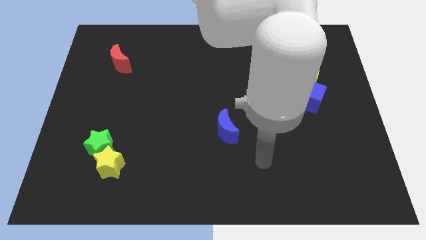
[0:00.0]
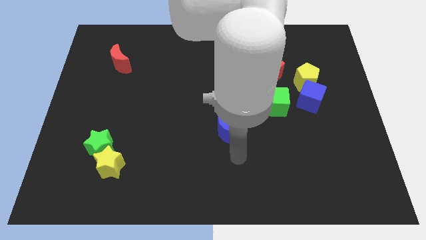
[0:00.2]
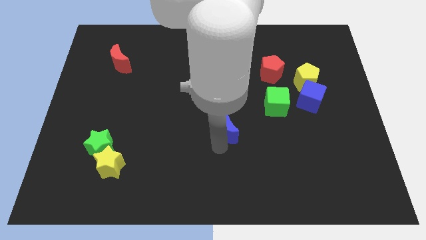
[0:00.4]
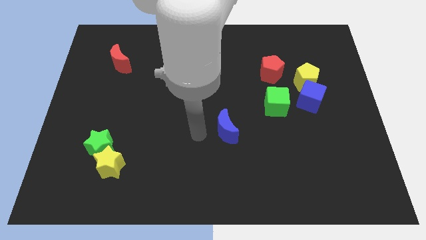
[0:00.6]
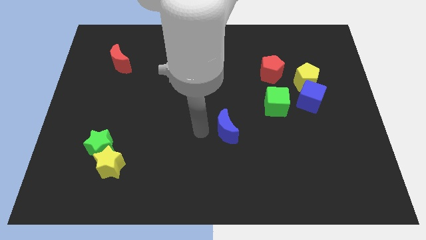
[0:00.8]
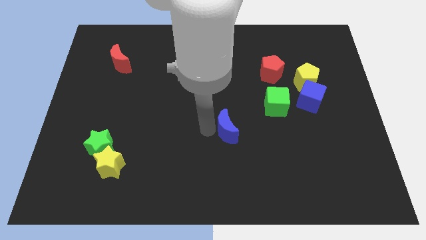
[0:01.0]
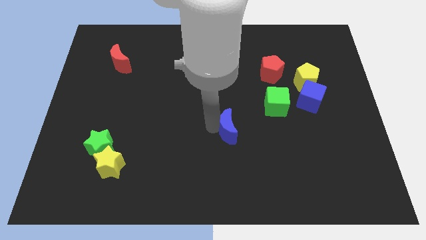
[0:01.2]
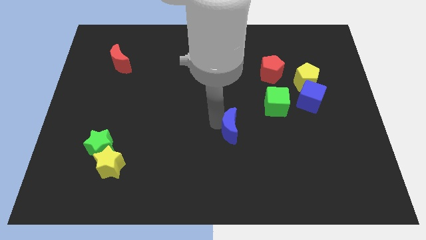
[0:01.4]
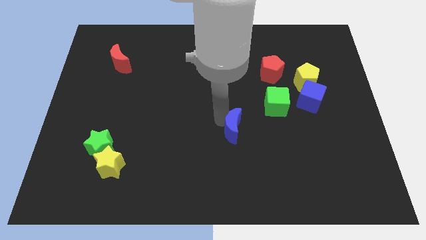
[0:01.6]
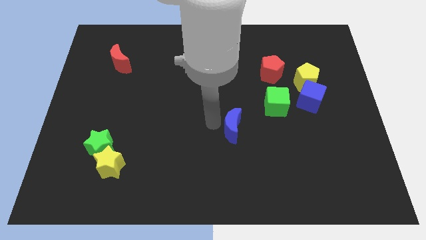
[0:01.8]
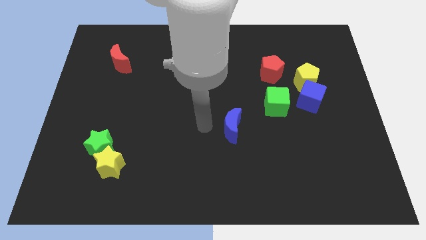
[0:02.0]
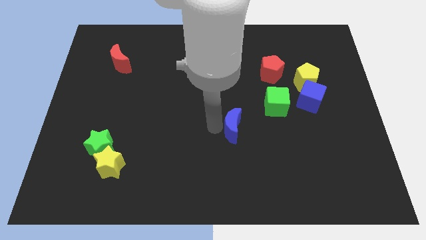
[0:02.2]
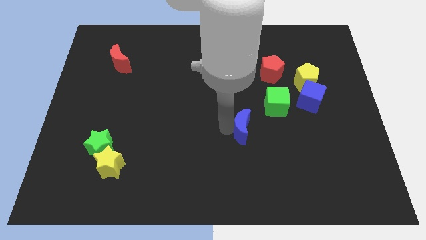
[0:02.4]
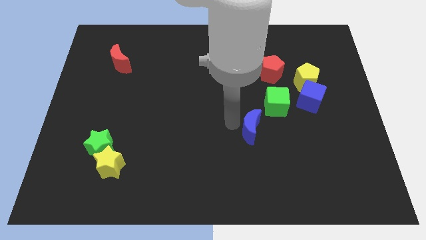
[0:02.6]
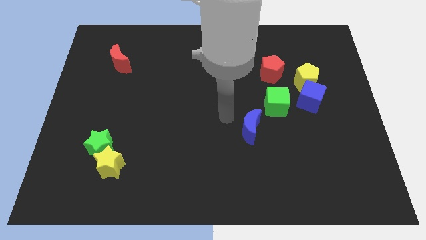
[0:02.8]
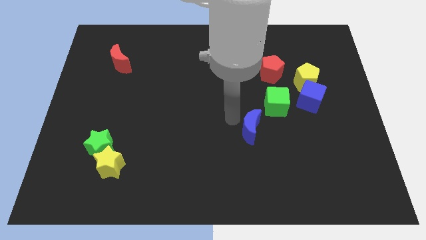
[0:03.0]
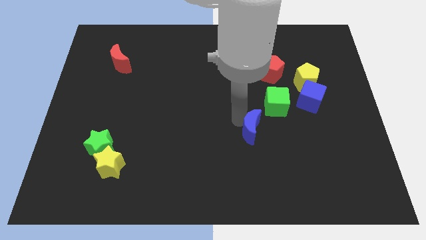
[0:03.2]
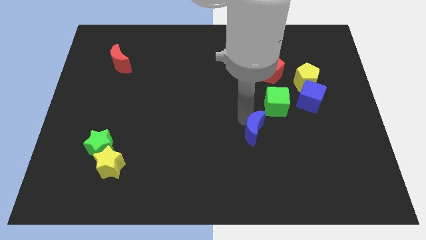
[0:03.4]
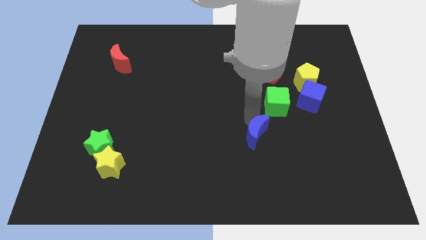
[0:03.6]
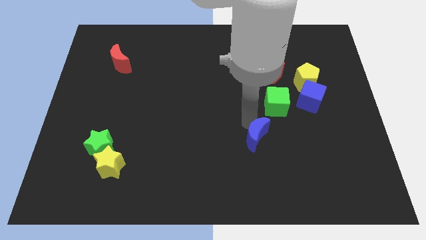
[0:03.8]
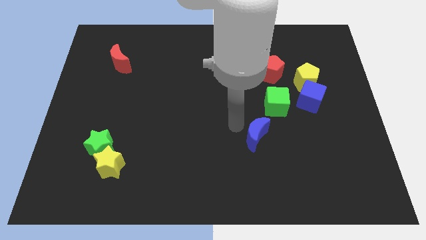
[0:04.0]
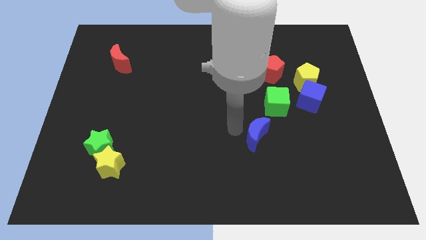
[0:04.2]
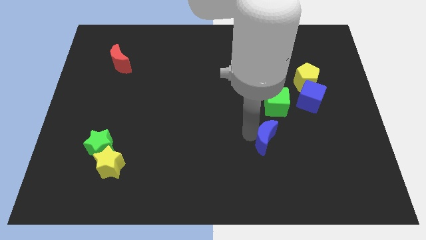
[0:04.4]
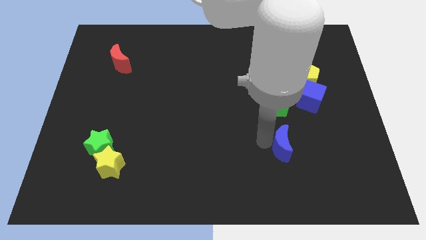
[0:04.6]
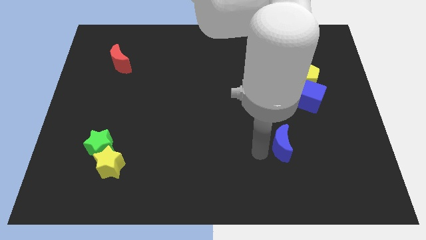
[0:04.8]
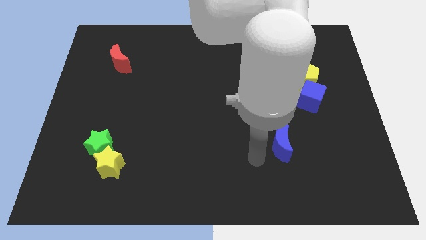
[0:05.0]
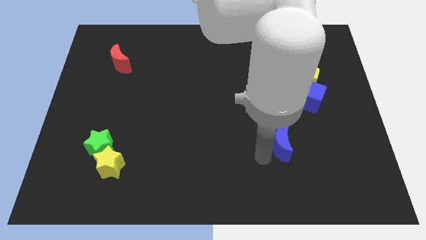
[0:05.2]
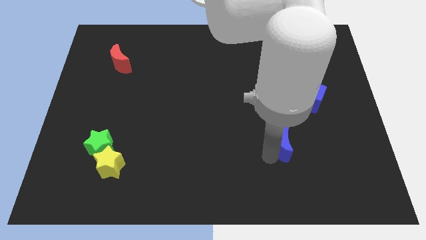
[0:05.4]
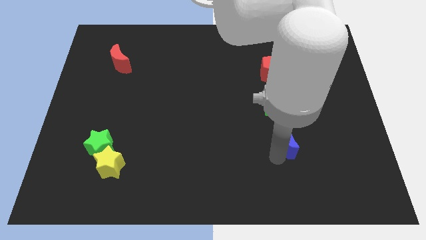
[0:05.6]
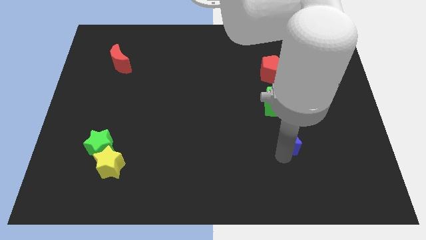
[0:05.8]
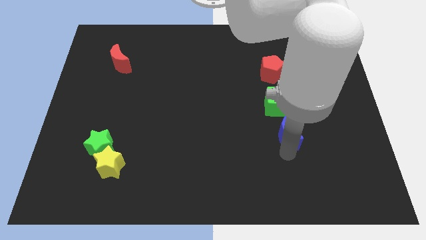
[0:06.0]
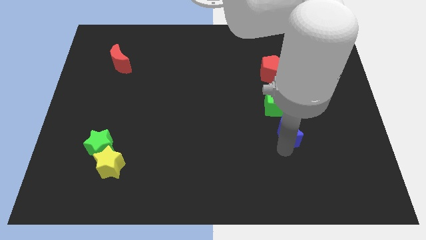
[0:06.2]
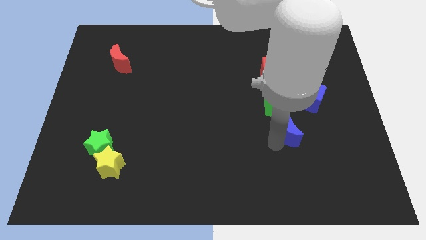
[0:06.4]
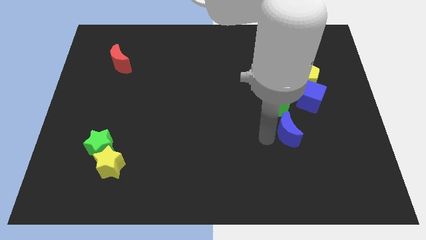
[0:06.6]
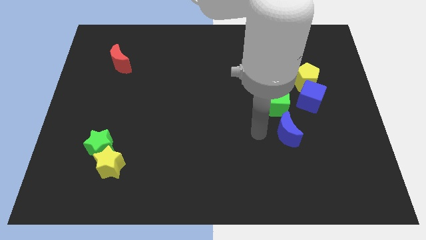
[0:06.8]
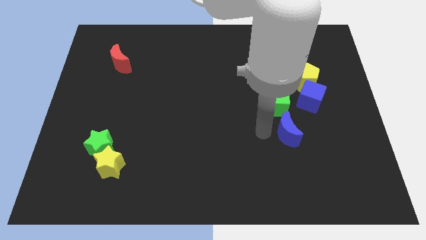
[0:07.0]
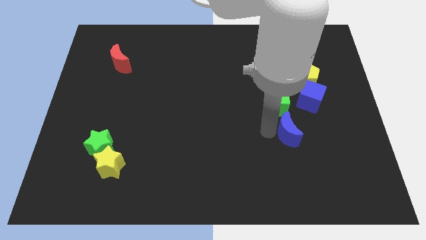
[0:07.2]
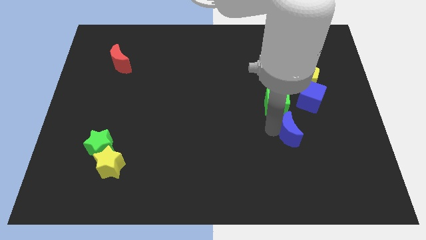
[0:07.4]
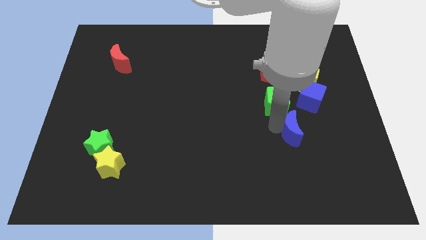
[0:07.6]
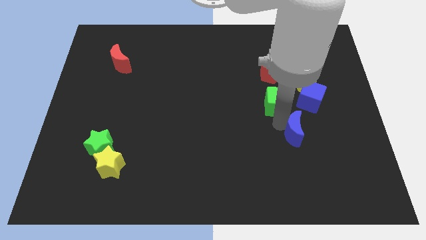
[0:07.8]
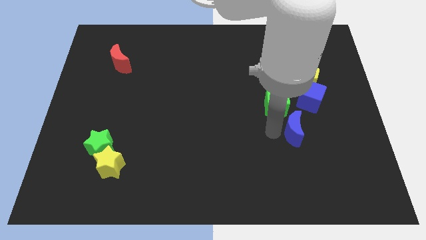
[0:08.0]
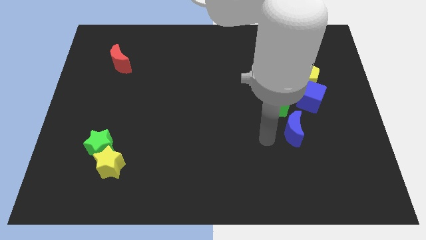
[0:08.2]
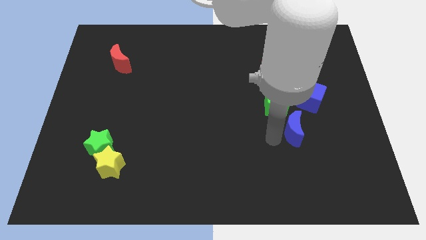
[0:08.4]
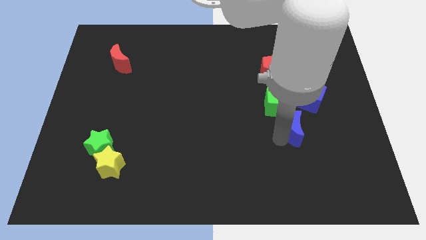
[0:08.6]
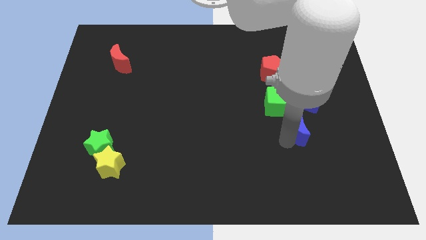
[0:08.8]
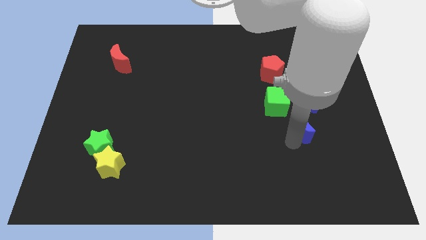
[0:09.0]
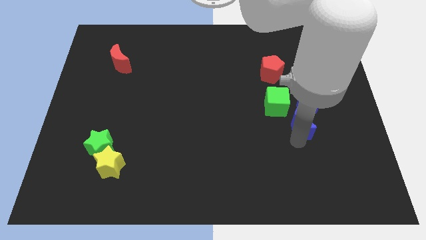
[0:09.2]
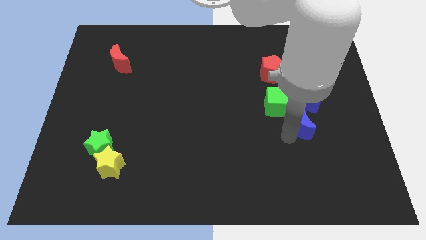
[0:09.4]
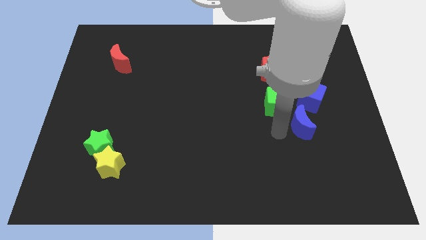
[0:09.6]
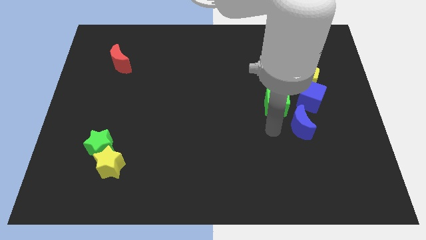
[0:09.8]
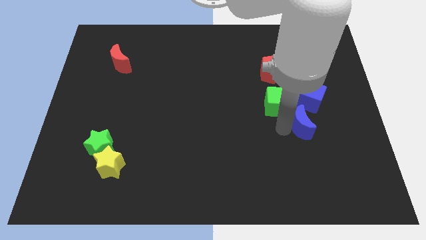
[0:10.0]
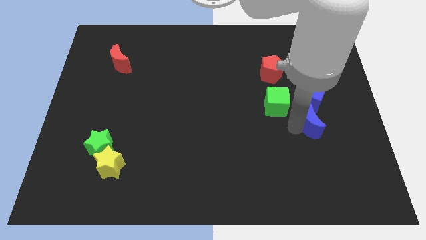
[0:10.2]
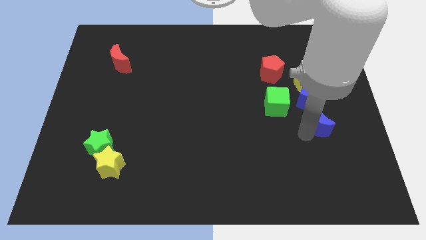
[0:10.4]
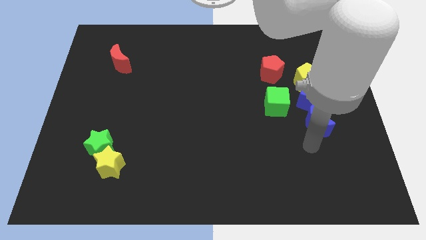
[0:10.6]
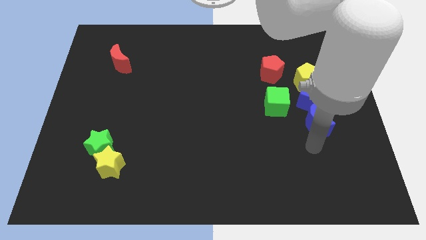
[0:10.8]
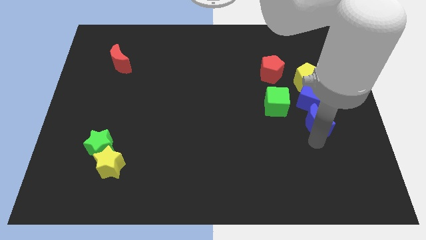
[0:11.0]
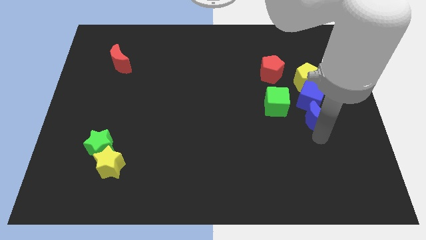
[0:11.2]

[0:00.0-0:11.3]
slide the blue moon to the right of the green cube

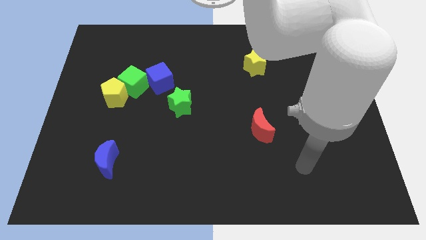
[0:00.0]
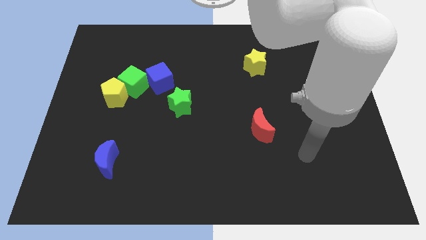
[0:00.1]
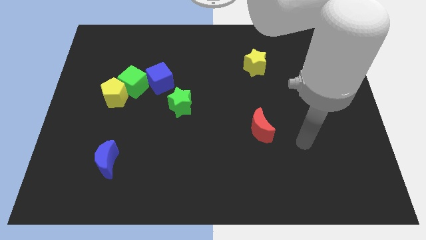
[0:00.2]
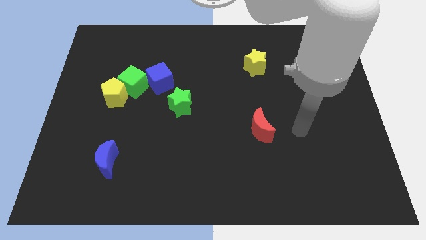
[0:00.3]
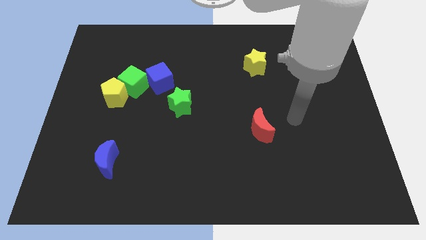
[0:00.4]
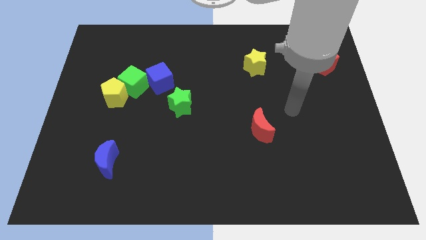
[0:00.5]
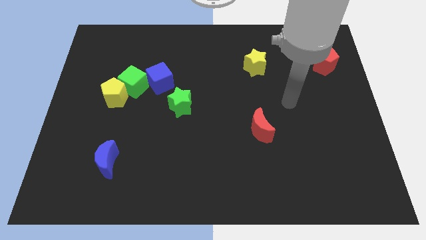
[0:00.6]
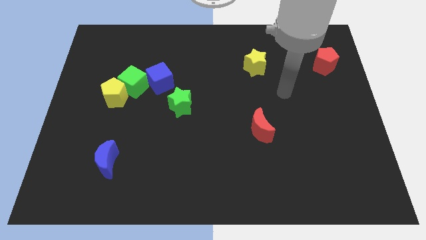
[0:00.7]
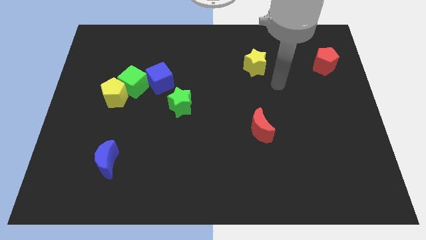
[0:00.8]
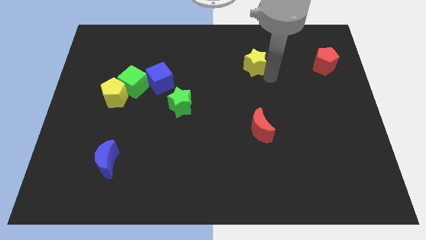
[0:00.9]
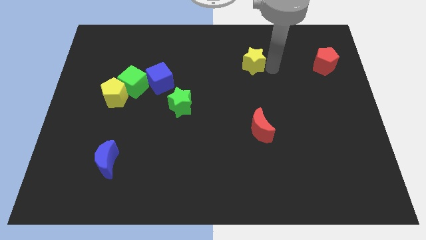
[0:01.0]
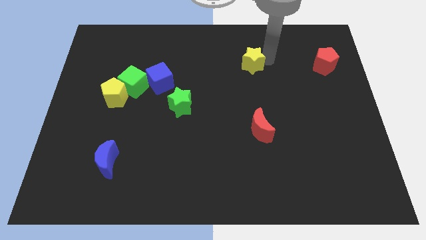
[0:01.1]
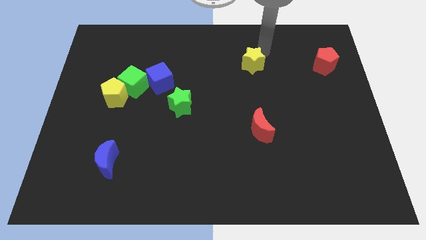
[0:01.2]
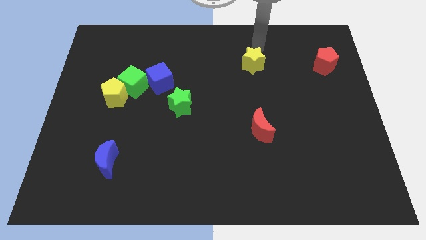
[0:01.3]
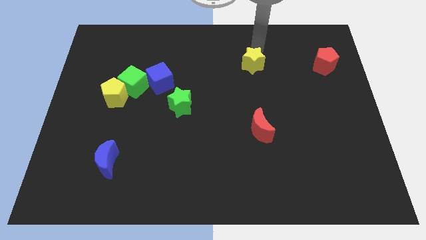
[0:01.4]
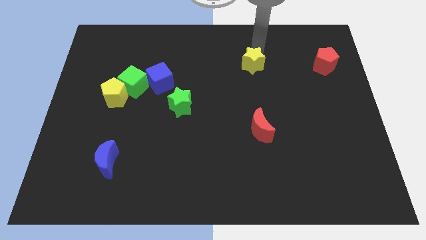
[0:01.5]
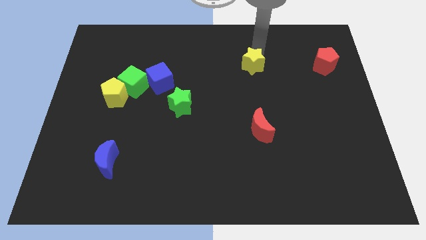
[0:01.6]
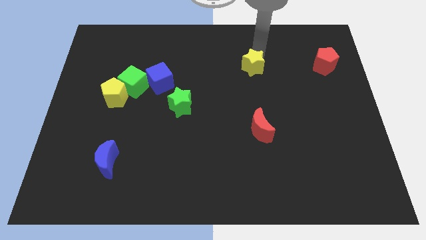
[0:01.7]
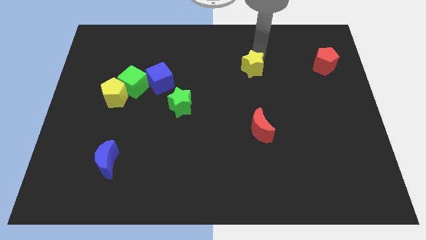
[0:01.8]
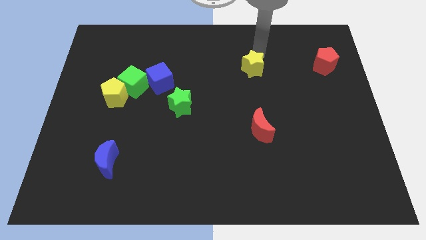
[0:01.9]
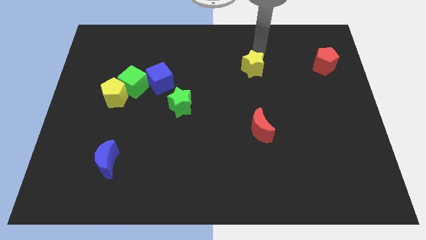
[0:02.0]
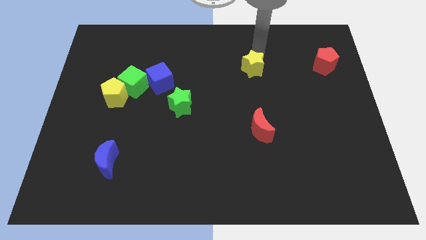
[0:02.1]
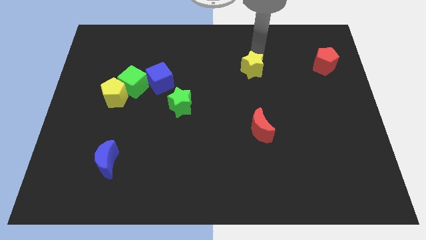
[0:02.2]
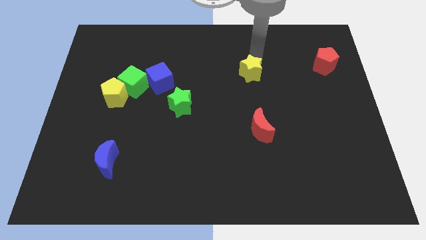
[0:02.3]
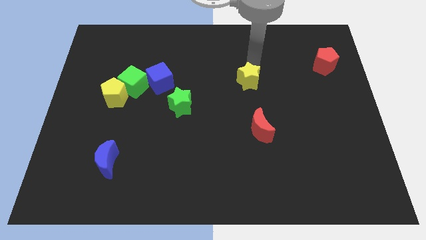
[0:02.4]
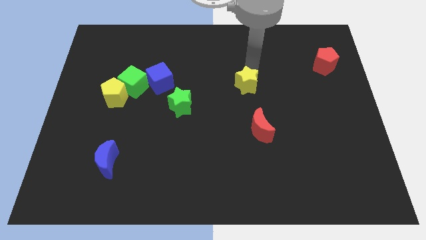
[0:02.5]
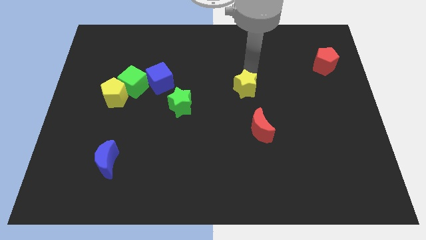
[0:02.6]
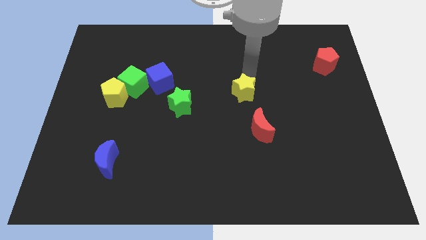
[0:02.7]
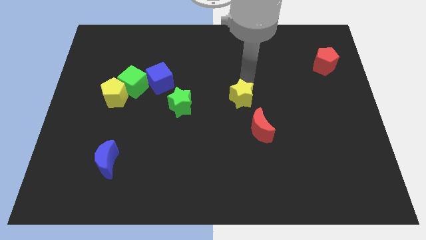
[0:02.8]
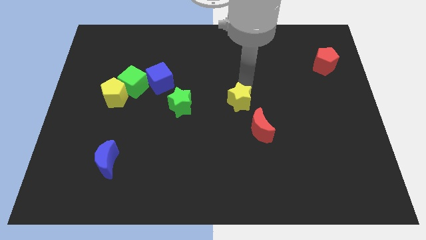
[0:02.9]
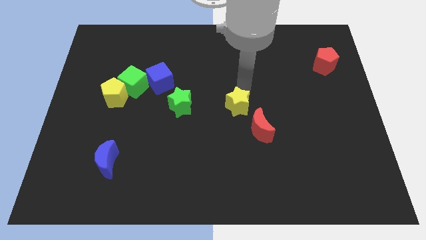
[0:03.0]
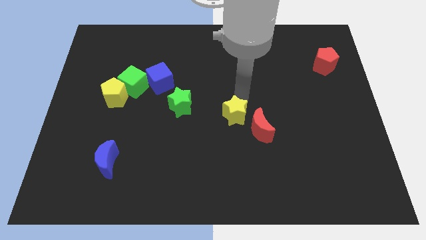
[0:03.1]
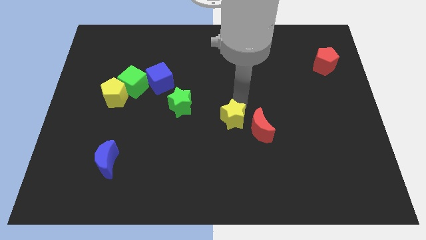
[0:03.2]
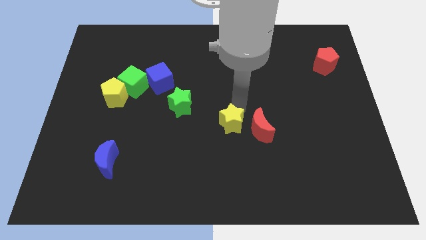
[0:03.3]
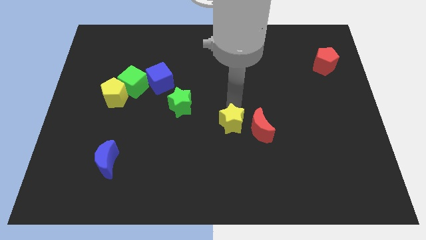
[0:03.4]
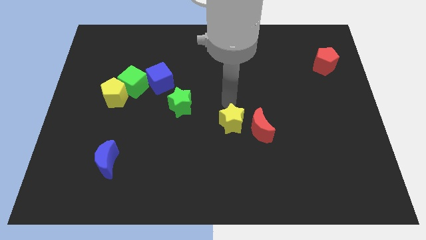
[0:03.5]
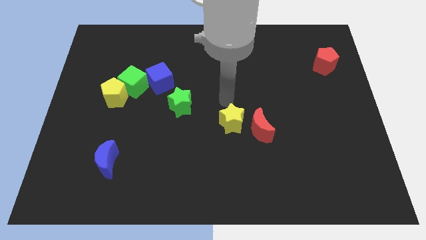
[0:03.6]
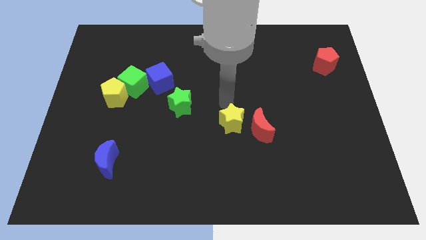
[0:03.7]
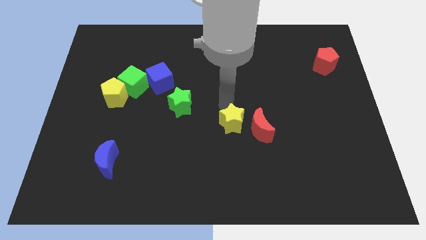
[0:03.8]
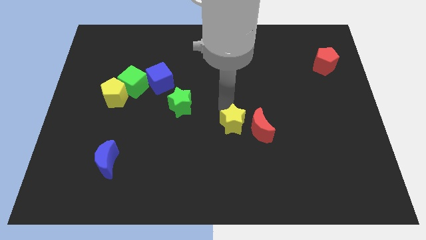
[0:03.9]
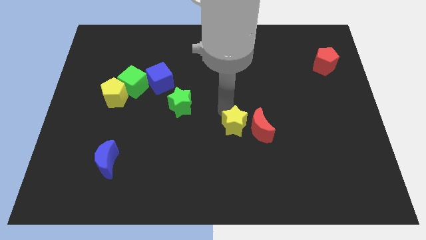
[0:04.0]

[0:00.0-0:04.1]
move the yellow star to the bottom left of the red moon
